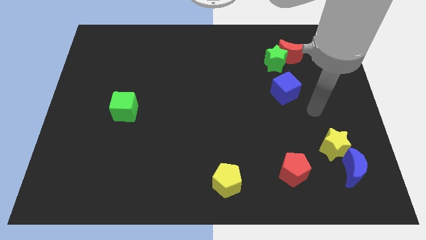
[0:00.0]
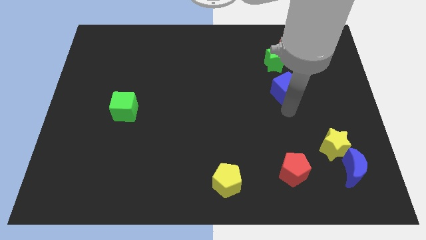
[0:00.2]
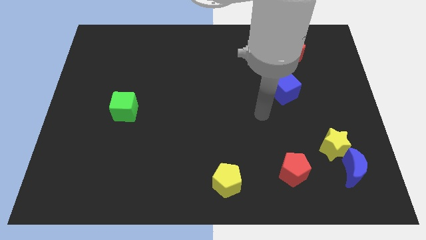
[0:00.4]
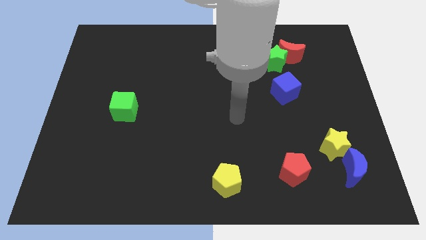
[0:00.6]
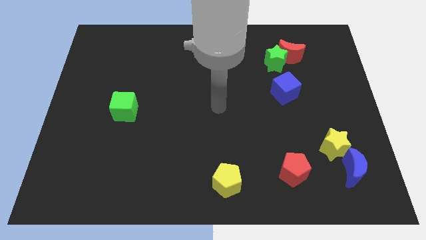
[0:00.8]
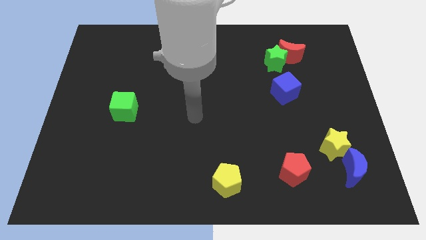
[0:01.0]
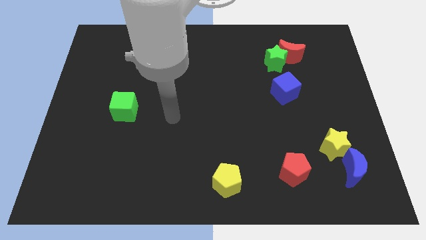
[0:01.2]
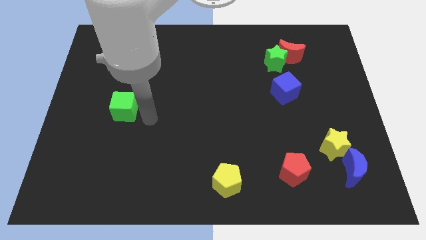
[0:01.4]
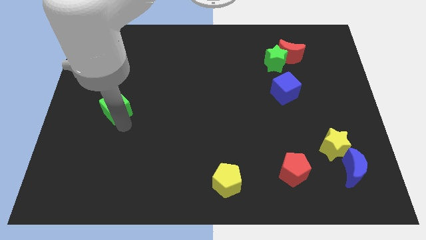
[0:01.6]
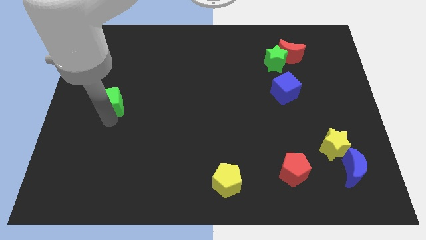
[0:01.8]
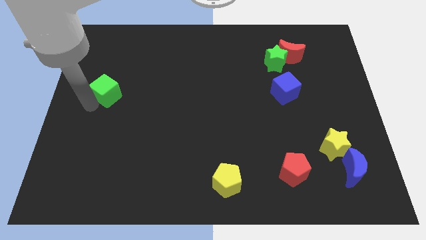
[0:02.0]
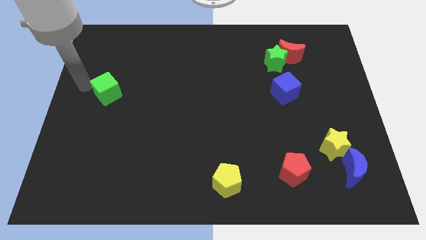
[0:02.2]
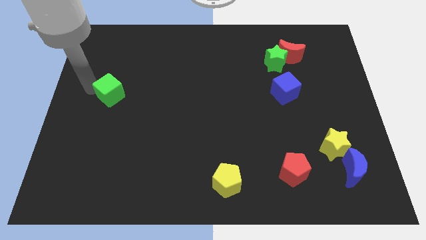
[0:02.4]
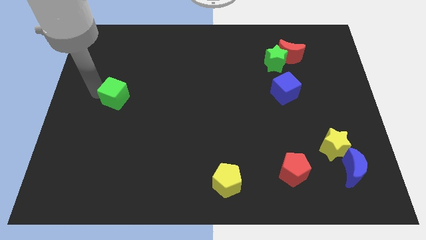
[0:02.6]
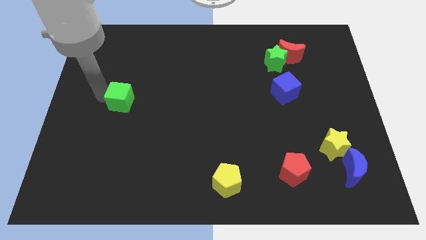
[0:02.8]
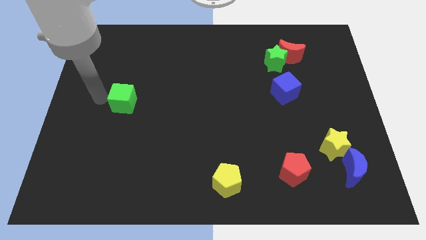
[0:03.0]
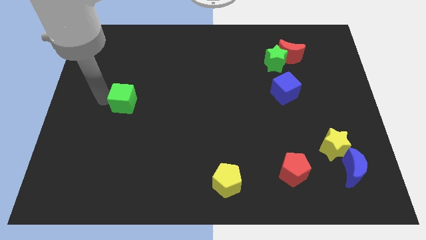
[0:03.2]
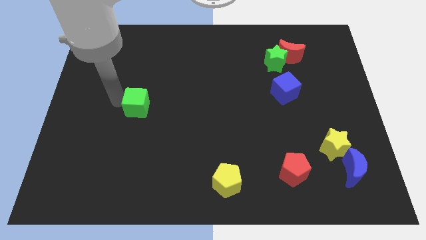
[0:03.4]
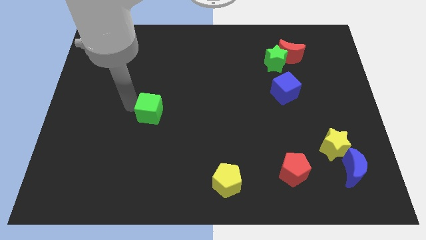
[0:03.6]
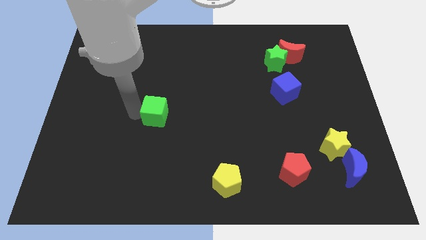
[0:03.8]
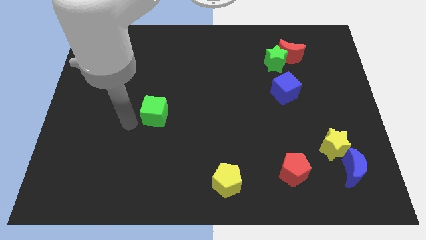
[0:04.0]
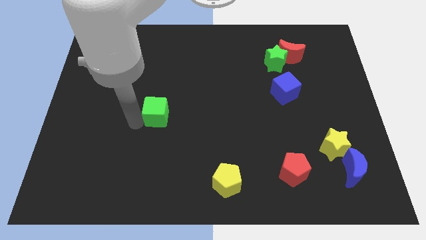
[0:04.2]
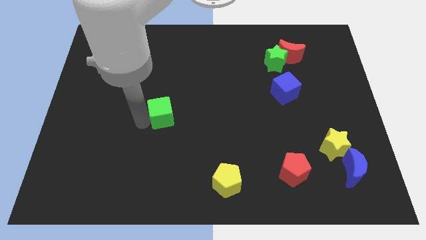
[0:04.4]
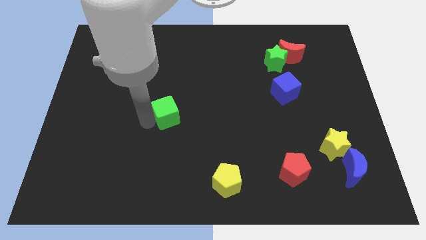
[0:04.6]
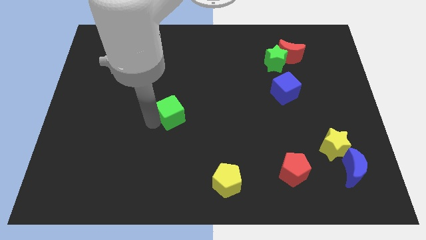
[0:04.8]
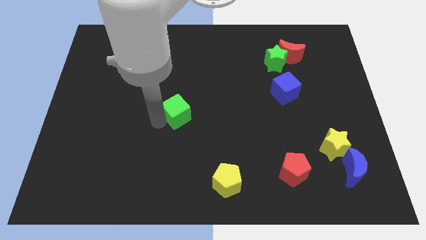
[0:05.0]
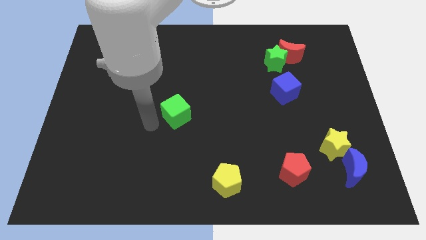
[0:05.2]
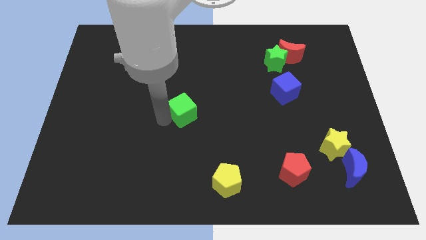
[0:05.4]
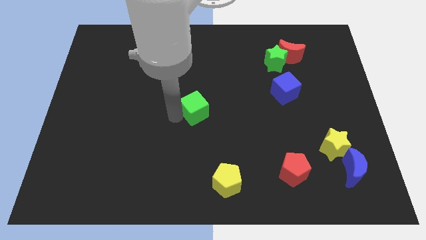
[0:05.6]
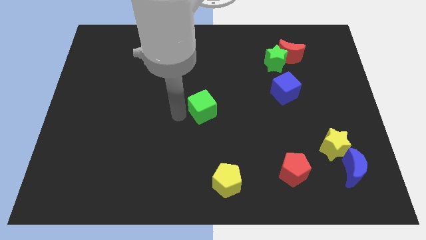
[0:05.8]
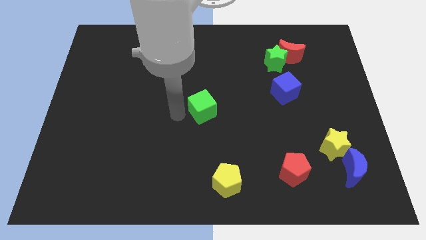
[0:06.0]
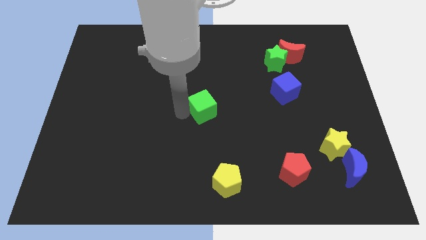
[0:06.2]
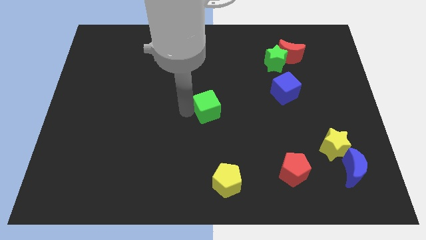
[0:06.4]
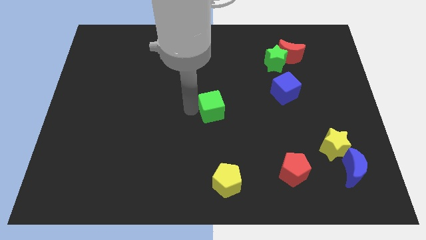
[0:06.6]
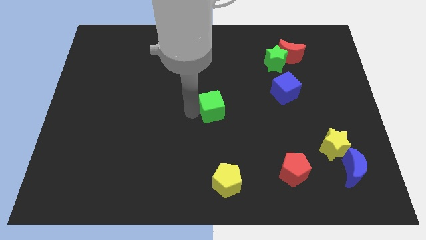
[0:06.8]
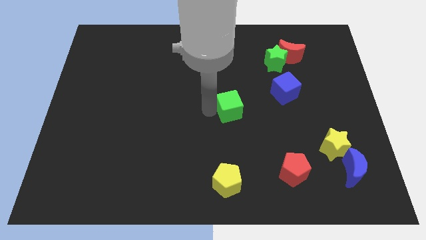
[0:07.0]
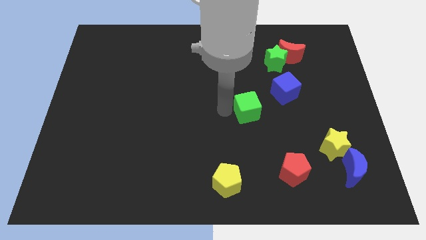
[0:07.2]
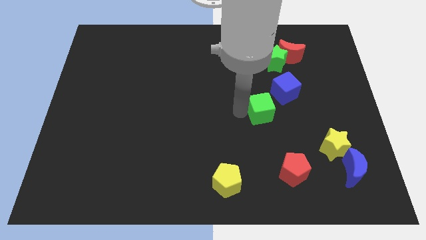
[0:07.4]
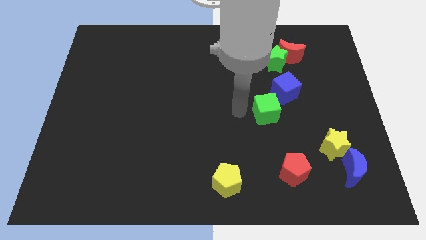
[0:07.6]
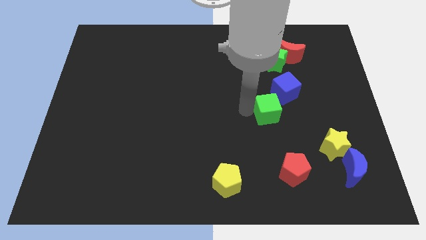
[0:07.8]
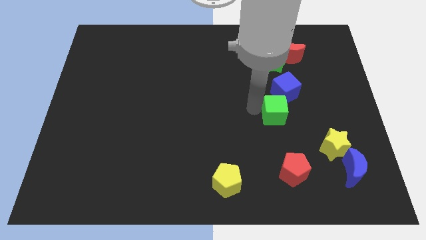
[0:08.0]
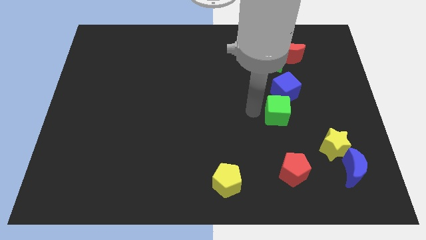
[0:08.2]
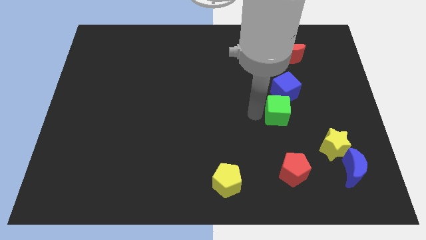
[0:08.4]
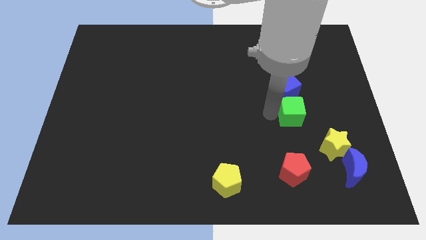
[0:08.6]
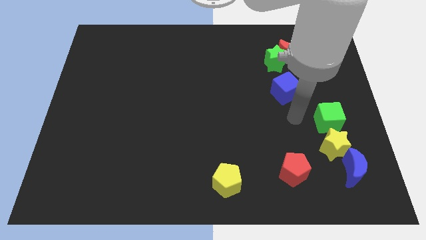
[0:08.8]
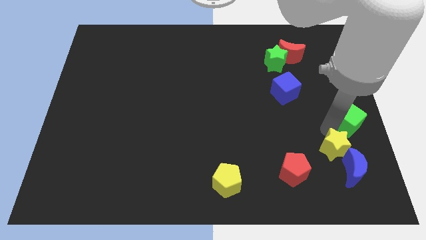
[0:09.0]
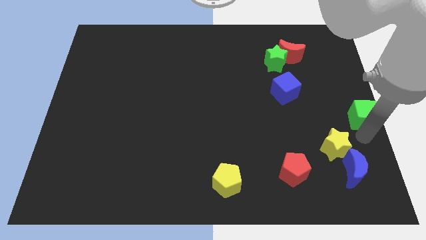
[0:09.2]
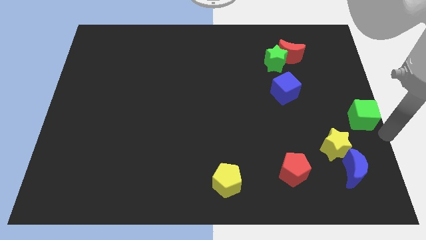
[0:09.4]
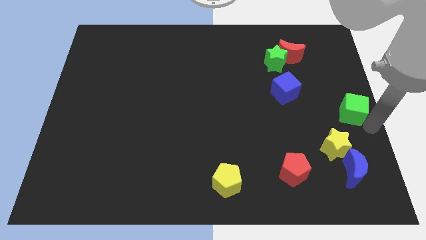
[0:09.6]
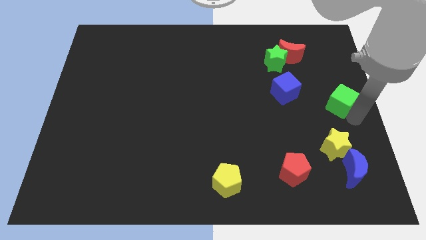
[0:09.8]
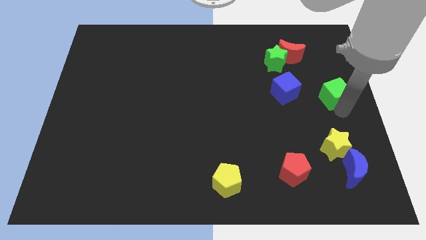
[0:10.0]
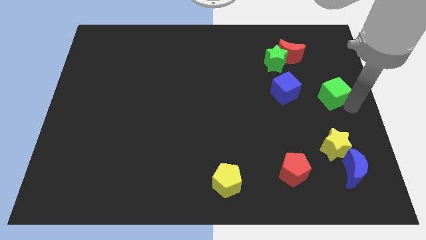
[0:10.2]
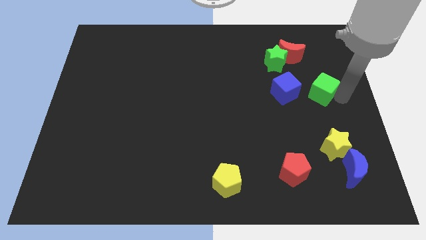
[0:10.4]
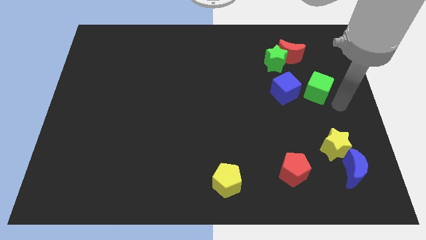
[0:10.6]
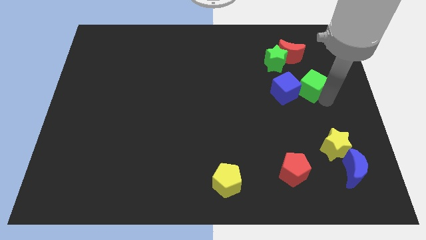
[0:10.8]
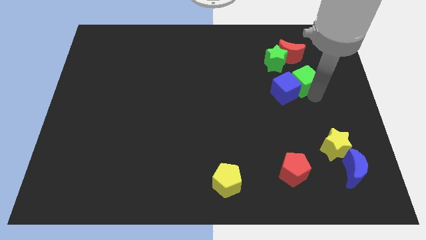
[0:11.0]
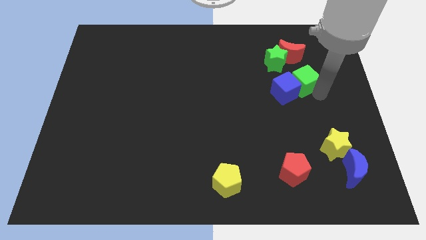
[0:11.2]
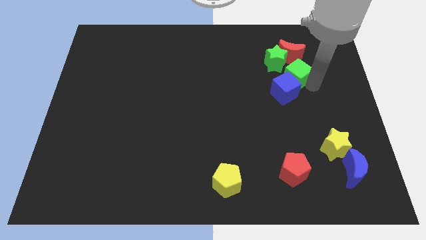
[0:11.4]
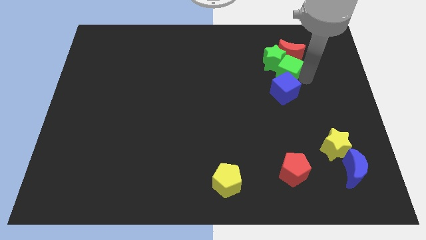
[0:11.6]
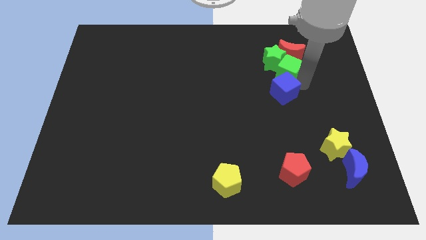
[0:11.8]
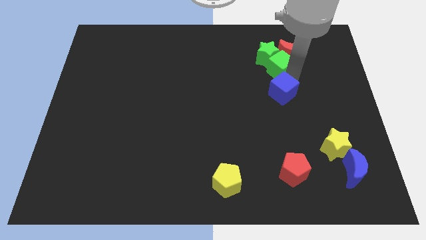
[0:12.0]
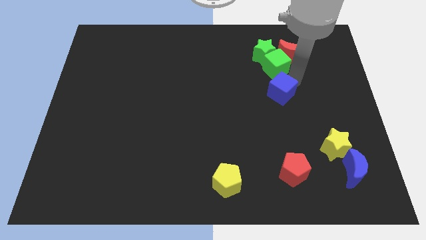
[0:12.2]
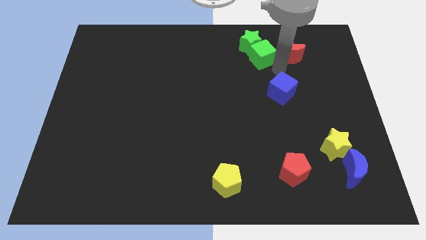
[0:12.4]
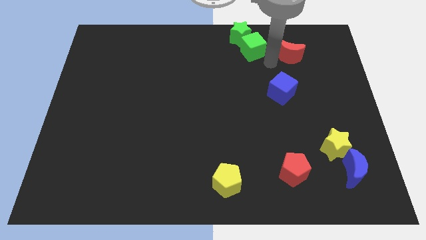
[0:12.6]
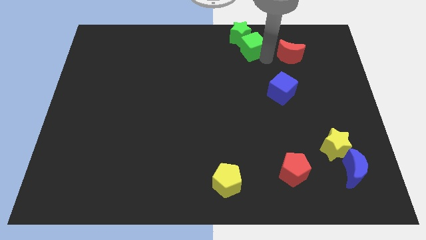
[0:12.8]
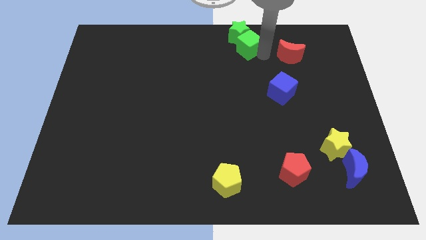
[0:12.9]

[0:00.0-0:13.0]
push the green cube to the top

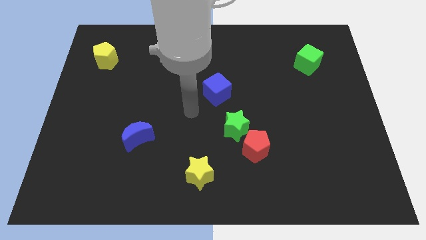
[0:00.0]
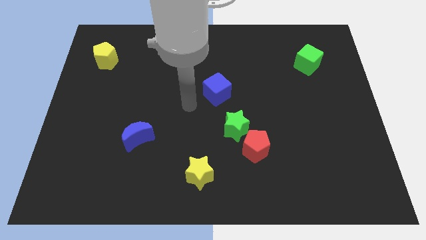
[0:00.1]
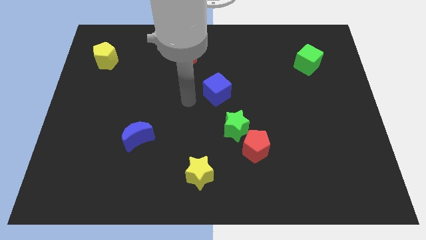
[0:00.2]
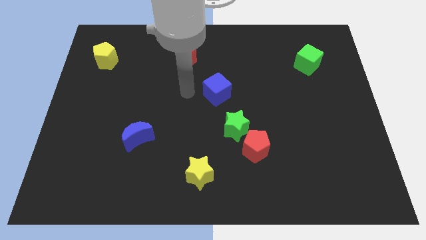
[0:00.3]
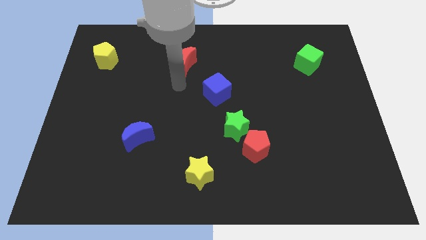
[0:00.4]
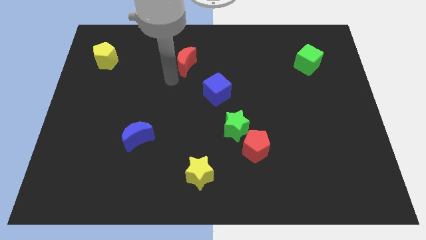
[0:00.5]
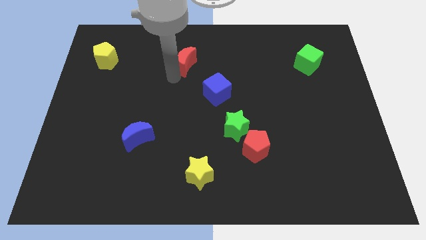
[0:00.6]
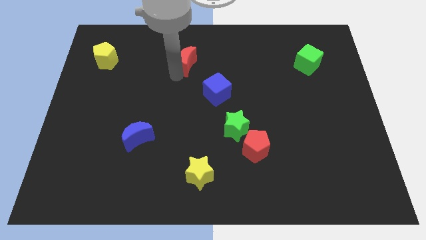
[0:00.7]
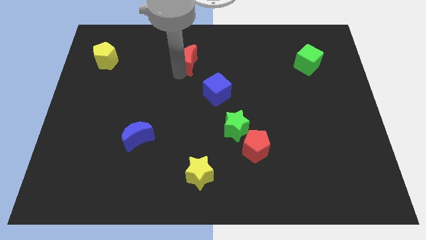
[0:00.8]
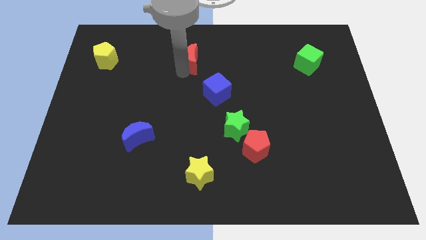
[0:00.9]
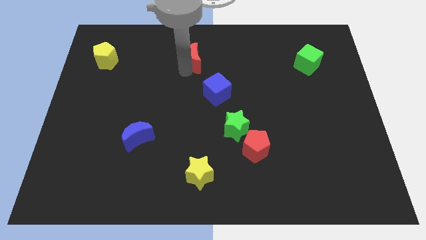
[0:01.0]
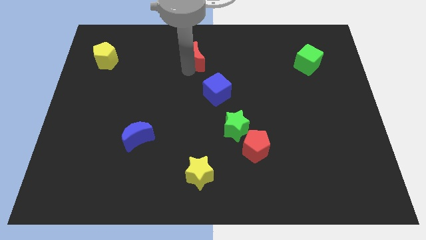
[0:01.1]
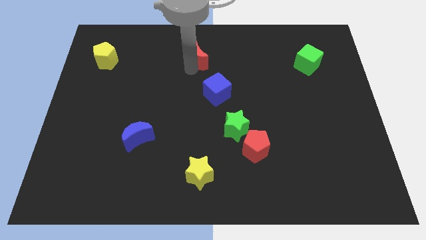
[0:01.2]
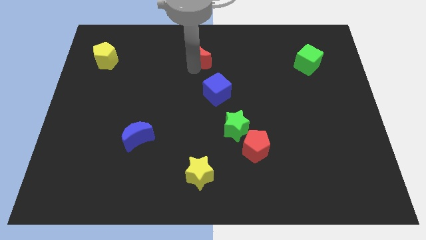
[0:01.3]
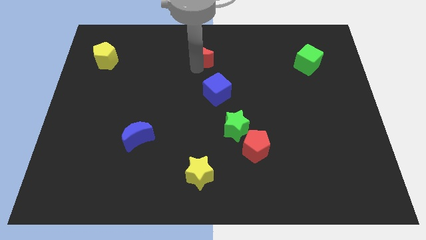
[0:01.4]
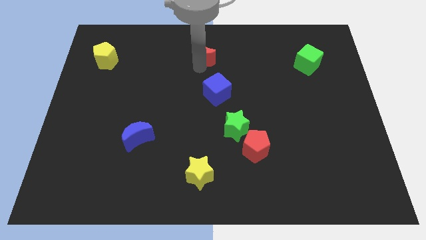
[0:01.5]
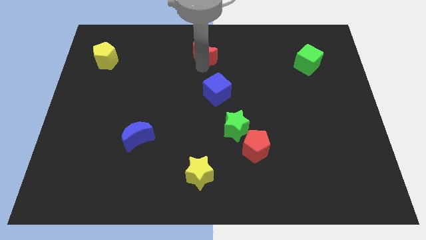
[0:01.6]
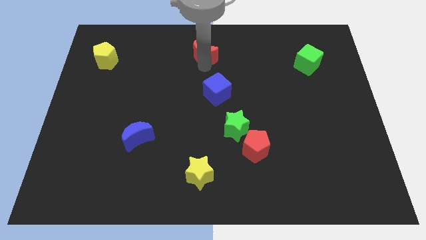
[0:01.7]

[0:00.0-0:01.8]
slide the red moon to the towards your base
